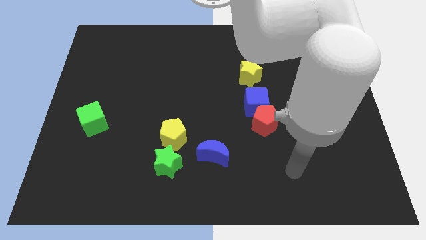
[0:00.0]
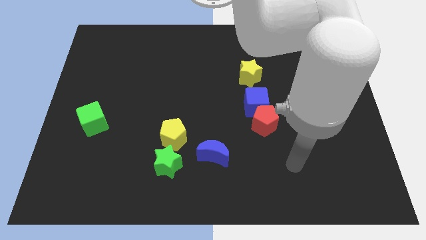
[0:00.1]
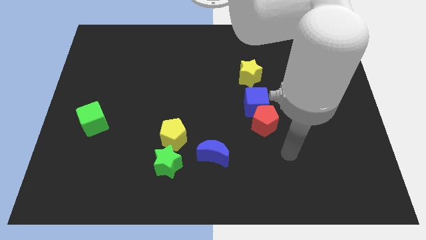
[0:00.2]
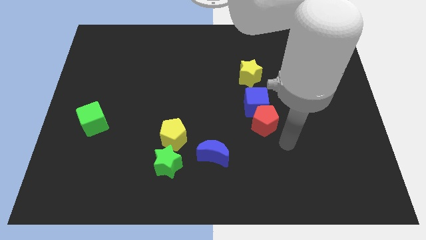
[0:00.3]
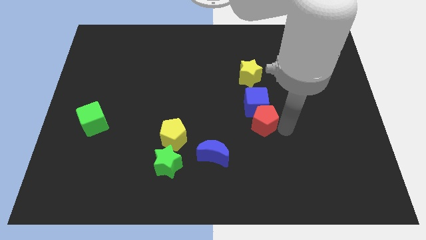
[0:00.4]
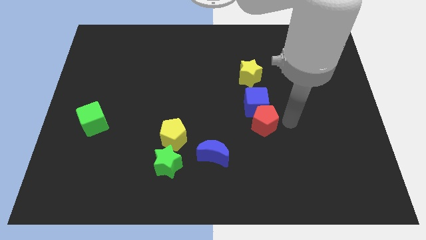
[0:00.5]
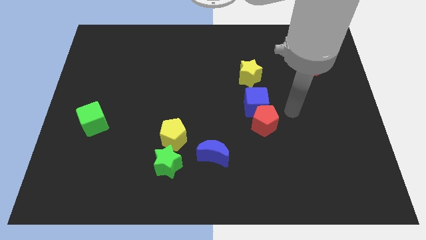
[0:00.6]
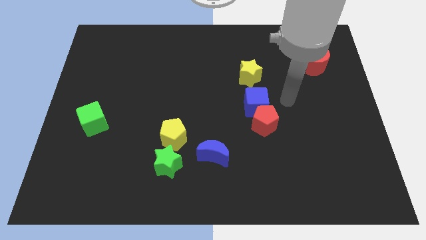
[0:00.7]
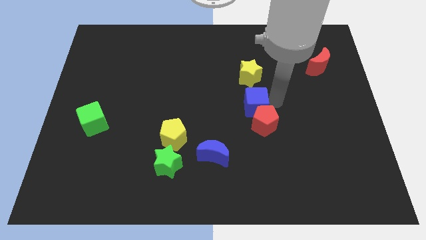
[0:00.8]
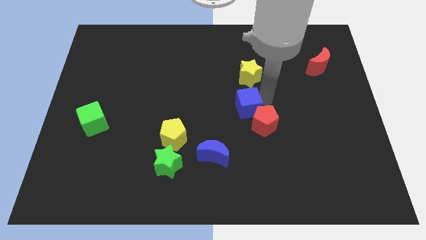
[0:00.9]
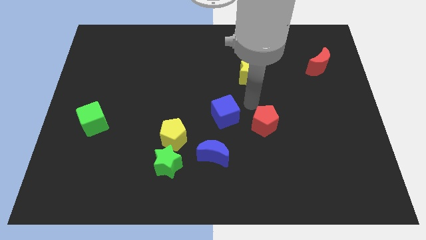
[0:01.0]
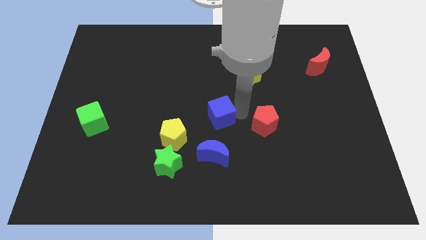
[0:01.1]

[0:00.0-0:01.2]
pull the red pentagon apart from the blue cube

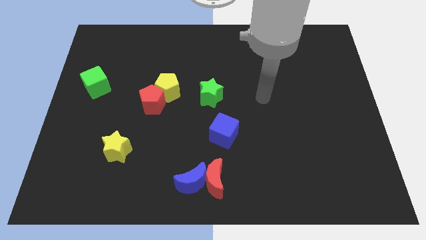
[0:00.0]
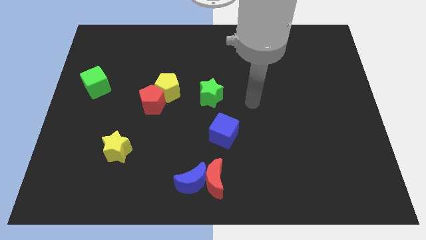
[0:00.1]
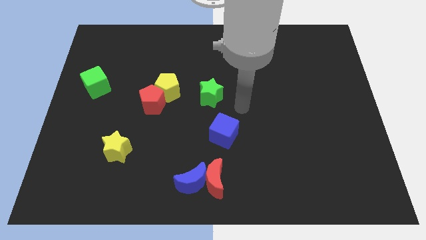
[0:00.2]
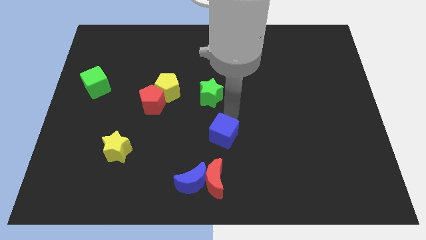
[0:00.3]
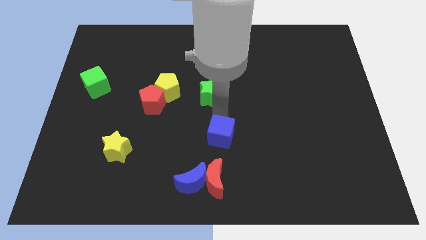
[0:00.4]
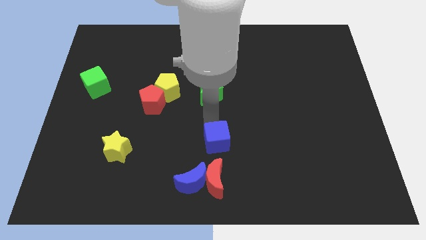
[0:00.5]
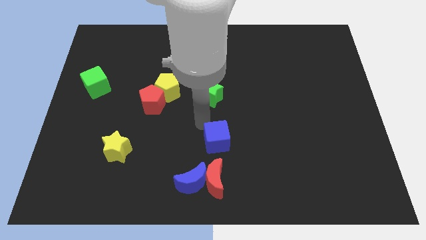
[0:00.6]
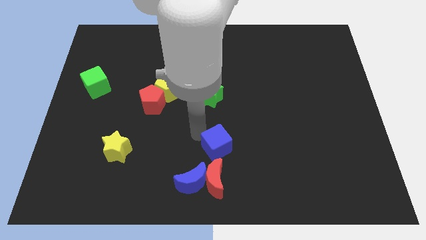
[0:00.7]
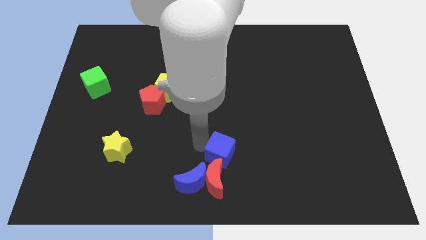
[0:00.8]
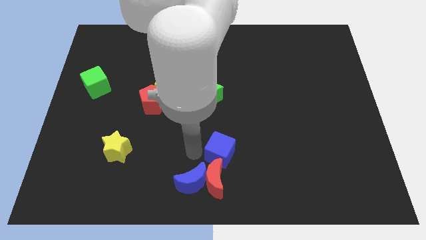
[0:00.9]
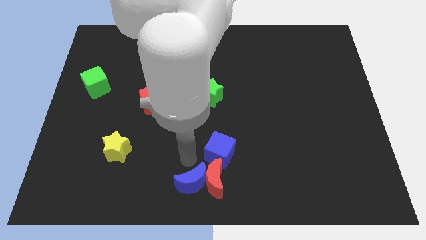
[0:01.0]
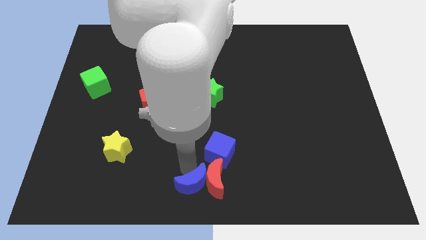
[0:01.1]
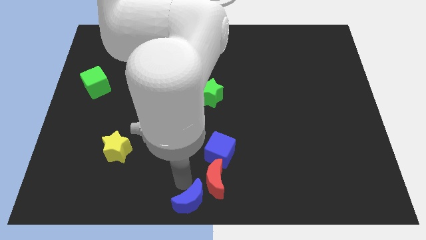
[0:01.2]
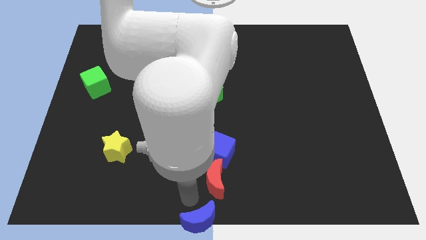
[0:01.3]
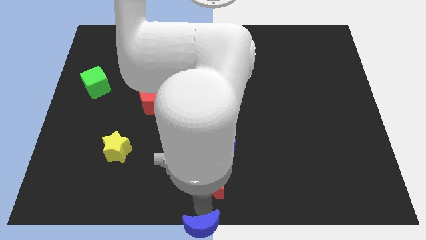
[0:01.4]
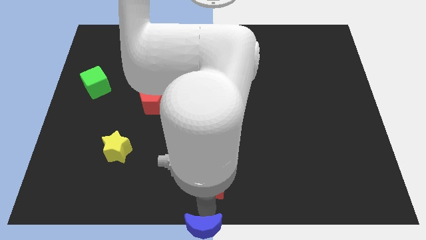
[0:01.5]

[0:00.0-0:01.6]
separate the red moon from the blue moon

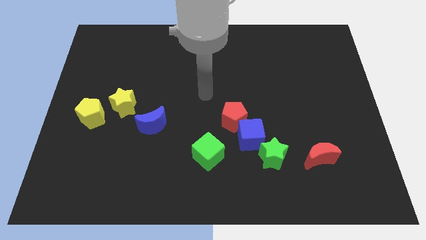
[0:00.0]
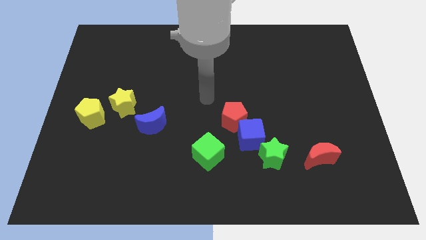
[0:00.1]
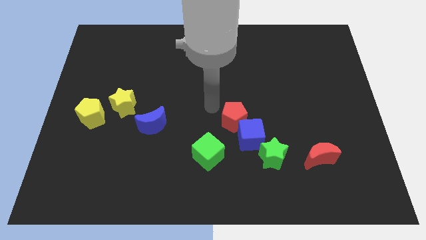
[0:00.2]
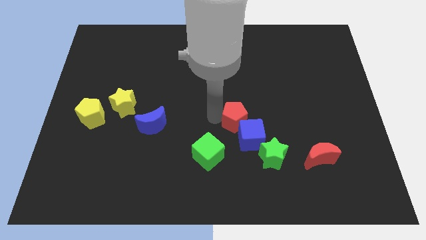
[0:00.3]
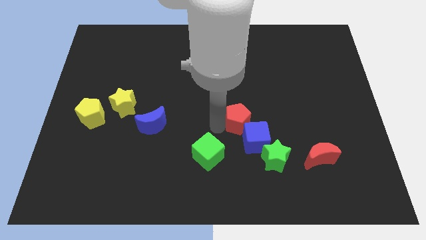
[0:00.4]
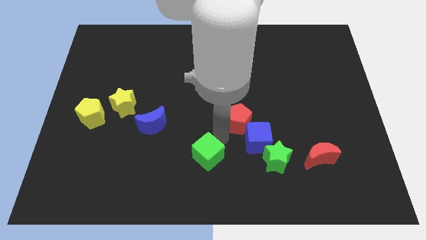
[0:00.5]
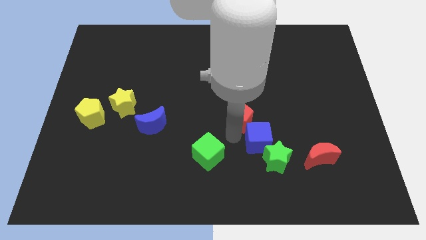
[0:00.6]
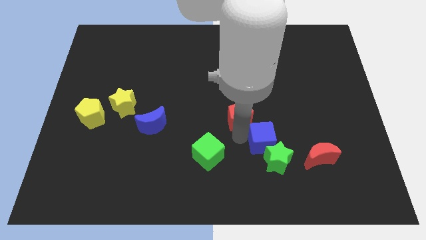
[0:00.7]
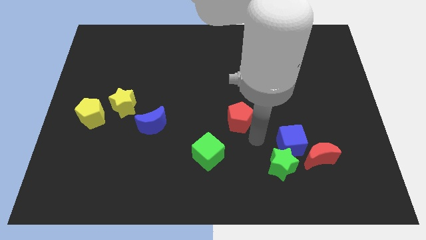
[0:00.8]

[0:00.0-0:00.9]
move the red pentagon away from the blue cube

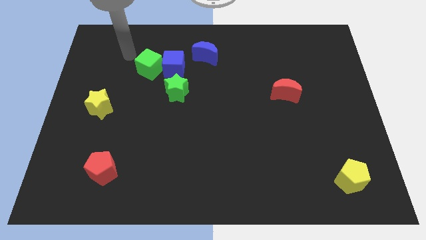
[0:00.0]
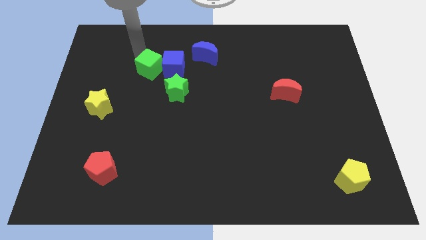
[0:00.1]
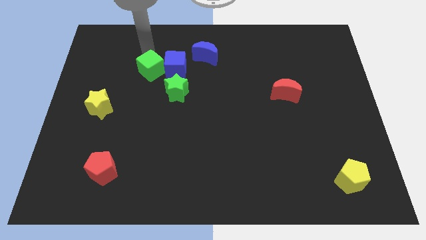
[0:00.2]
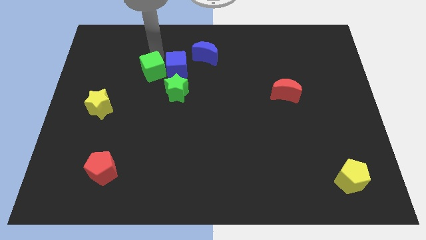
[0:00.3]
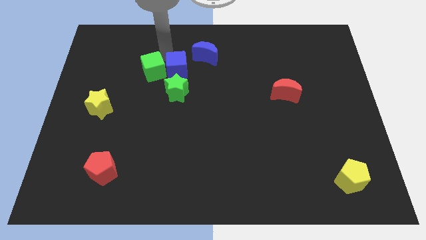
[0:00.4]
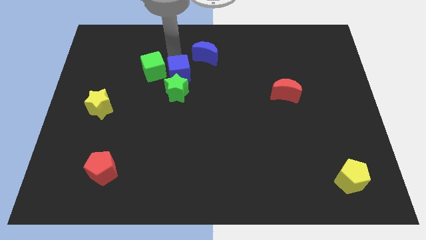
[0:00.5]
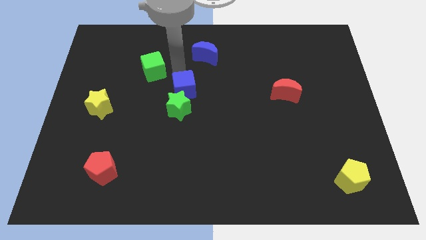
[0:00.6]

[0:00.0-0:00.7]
separate the green cube from the blue cube

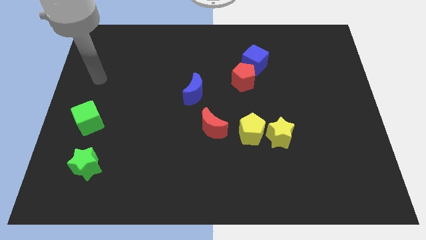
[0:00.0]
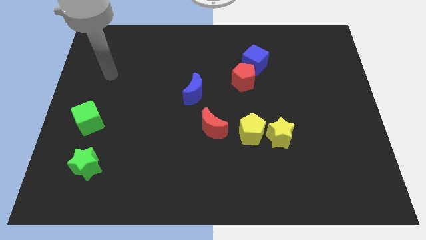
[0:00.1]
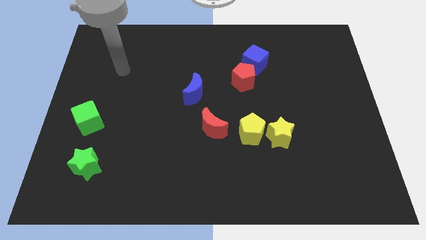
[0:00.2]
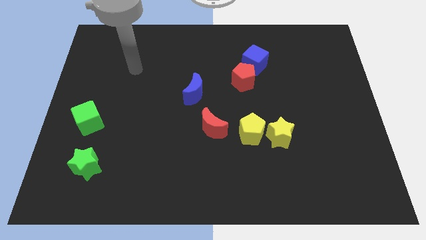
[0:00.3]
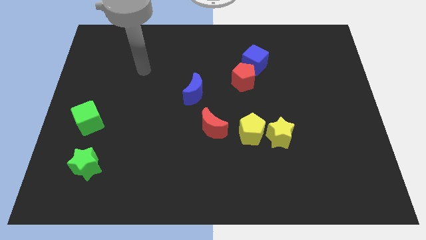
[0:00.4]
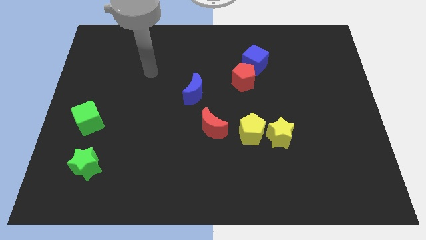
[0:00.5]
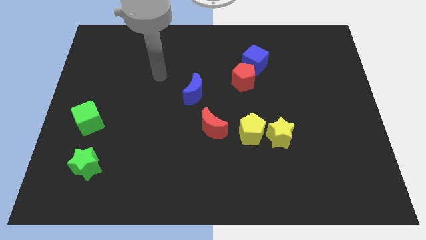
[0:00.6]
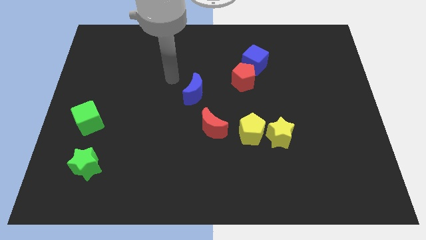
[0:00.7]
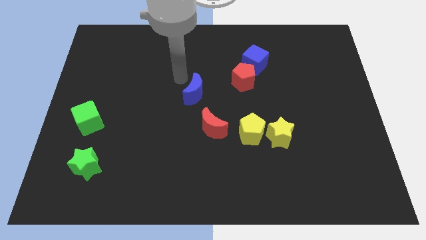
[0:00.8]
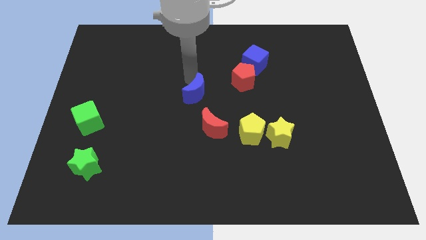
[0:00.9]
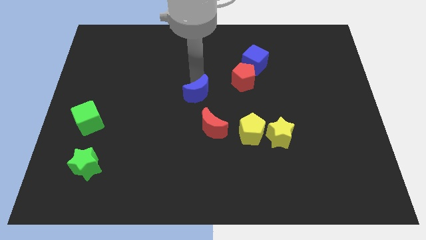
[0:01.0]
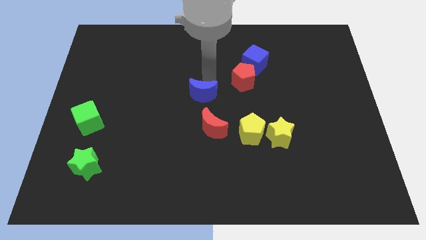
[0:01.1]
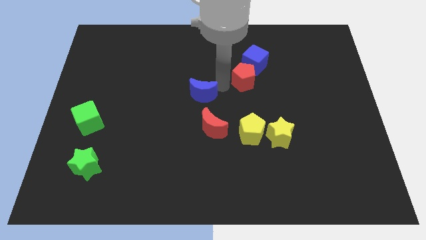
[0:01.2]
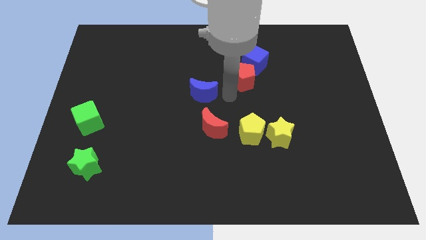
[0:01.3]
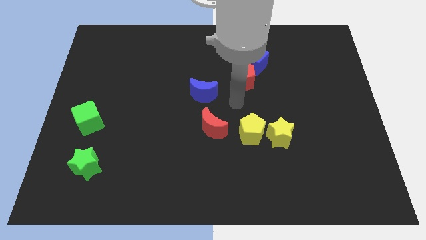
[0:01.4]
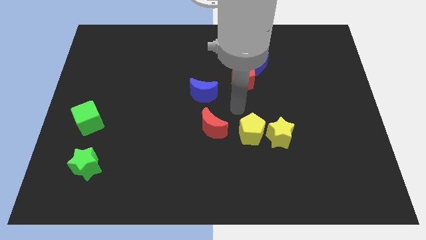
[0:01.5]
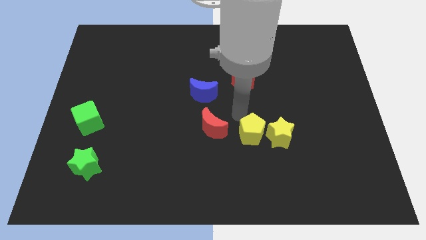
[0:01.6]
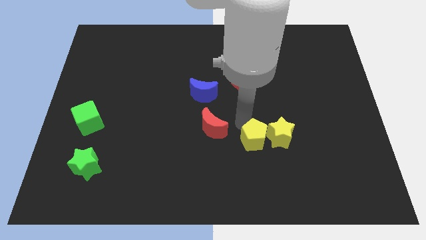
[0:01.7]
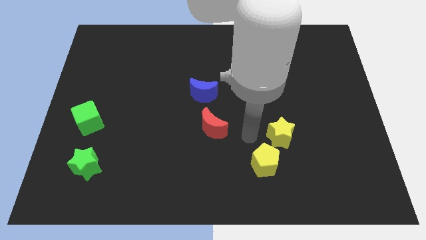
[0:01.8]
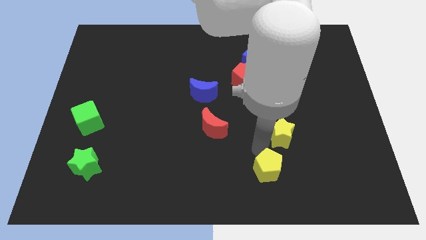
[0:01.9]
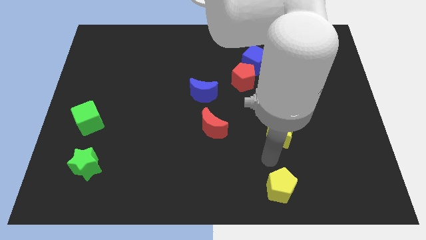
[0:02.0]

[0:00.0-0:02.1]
move the yellow star away from the yellow pentagon

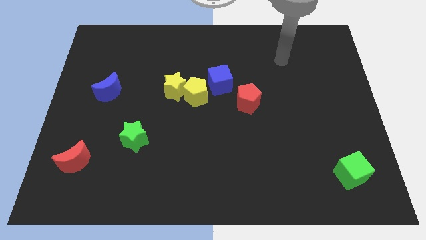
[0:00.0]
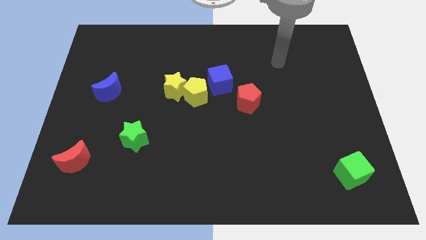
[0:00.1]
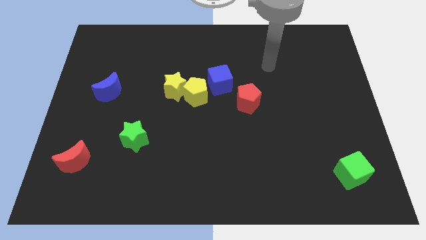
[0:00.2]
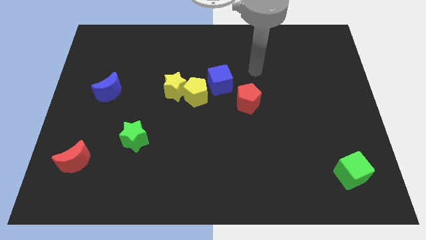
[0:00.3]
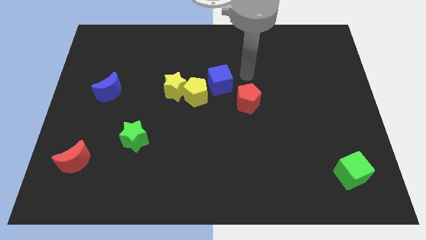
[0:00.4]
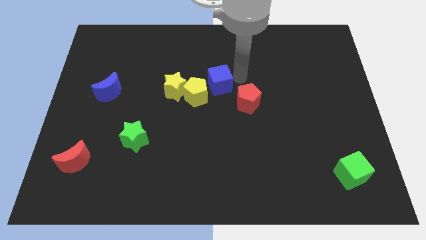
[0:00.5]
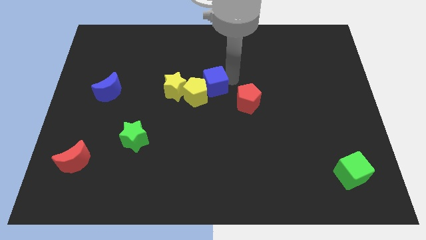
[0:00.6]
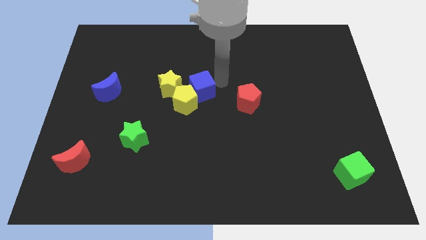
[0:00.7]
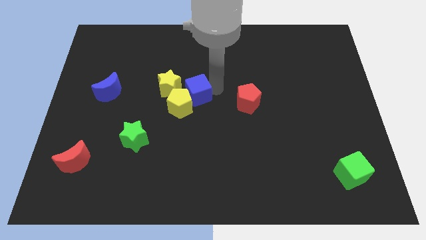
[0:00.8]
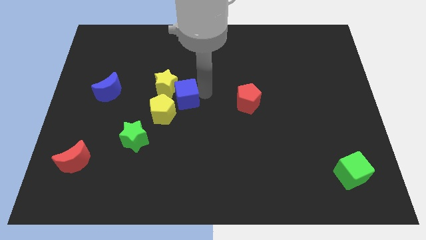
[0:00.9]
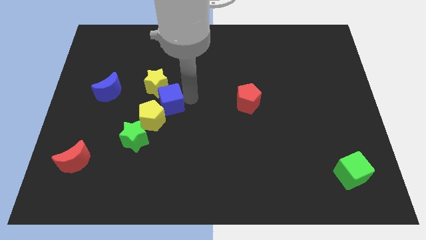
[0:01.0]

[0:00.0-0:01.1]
pull the yellow star apart from the yellow pentagon

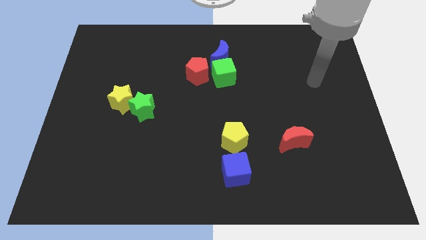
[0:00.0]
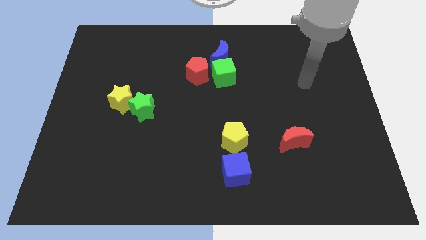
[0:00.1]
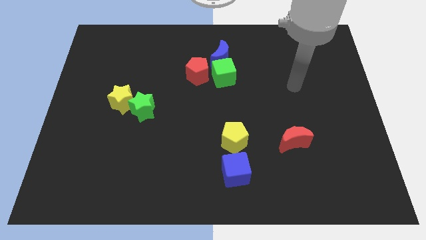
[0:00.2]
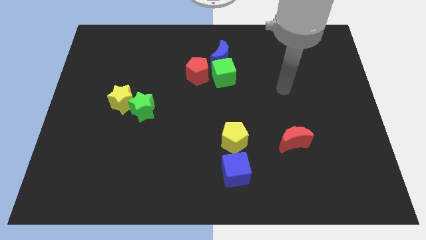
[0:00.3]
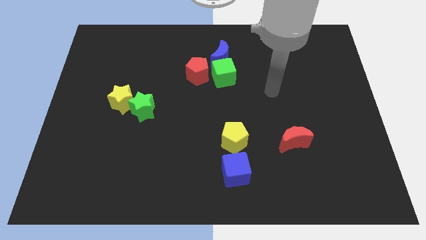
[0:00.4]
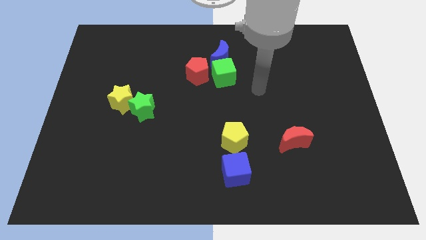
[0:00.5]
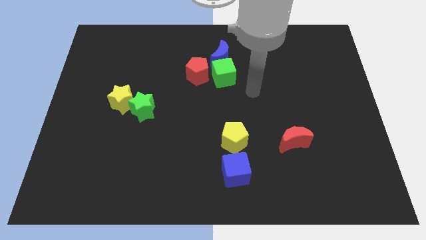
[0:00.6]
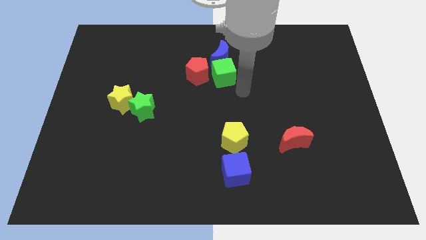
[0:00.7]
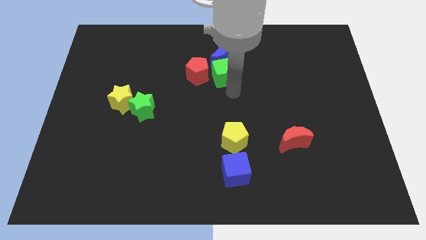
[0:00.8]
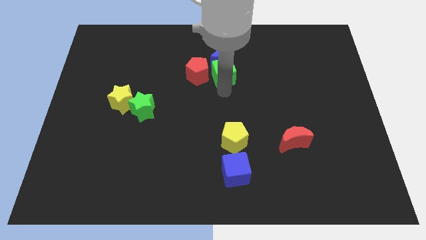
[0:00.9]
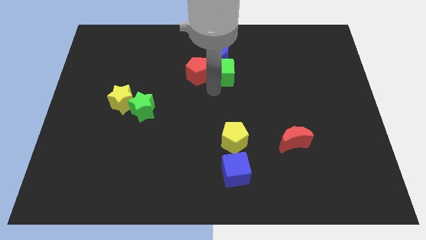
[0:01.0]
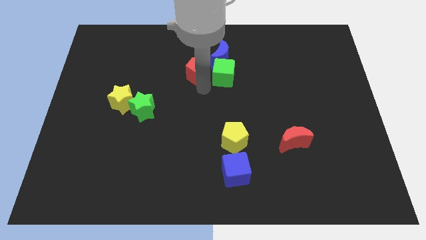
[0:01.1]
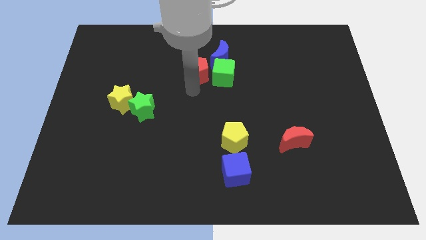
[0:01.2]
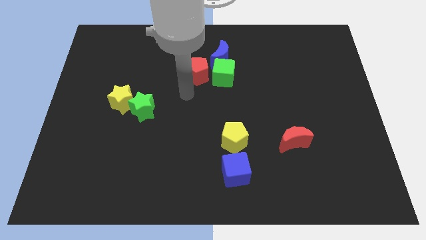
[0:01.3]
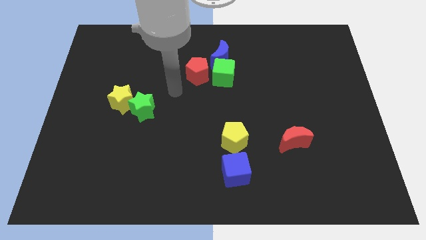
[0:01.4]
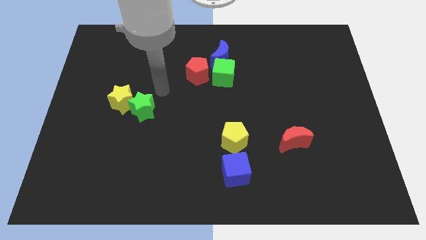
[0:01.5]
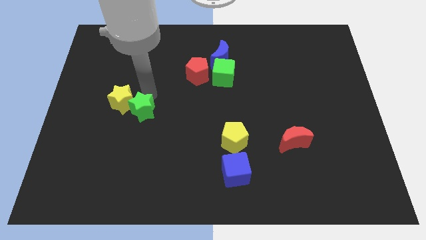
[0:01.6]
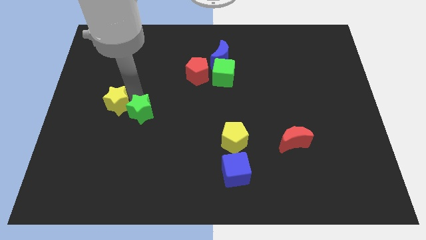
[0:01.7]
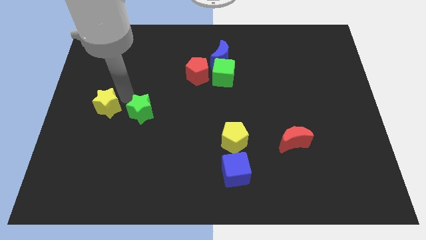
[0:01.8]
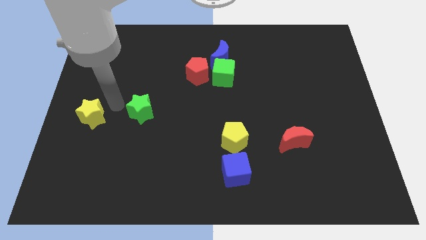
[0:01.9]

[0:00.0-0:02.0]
move the green star away from the yellow star
